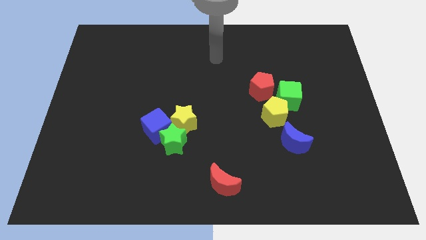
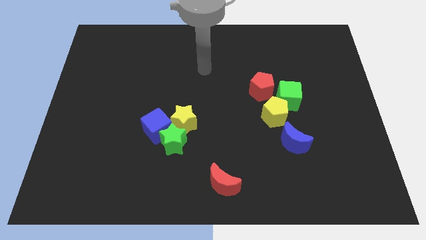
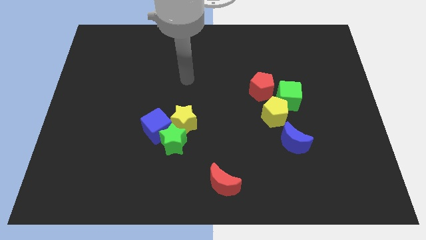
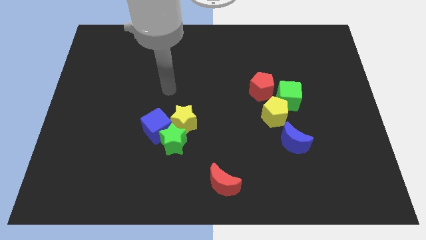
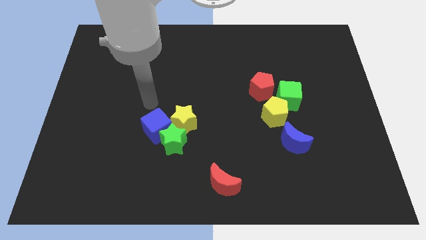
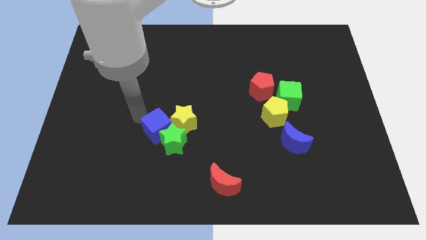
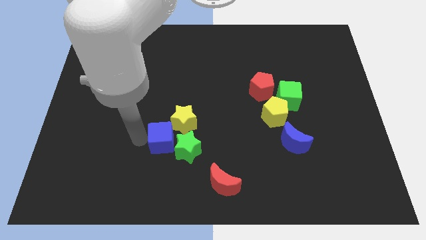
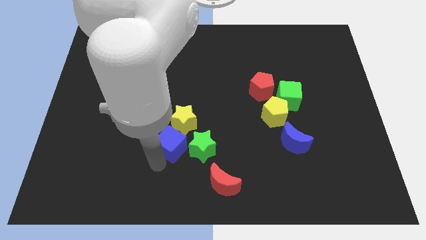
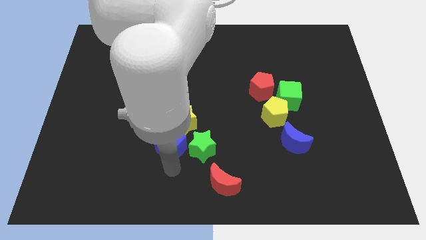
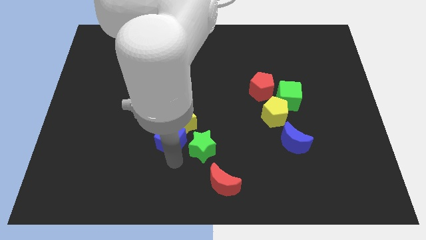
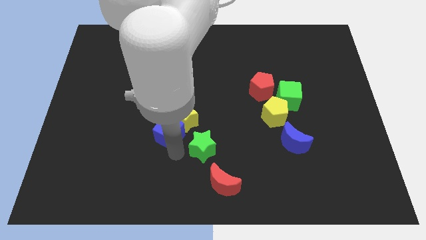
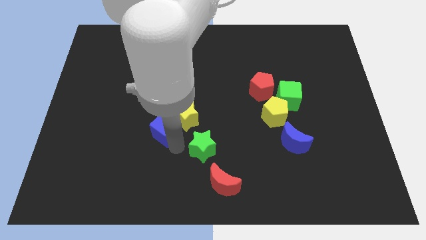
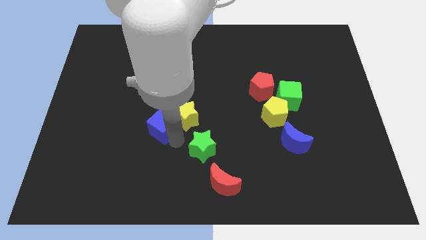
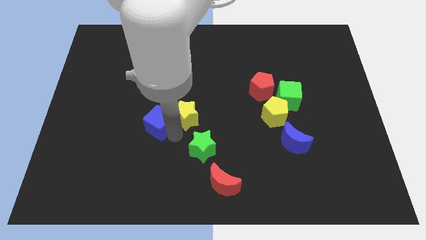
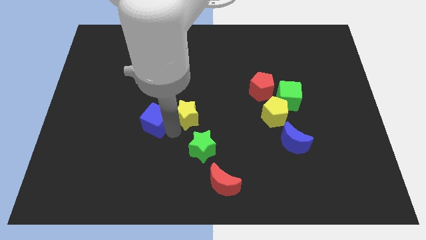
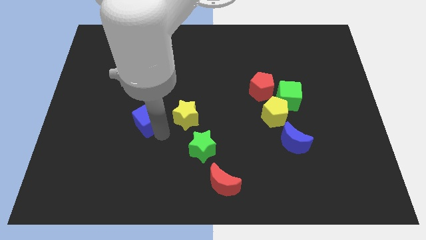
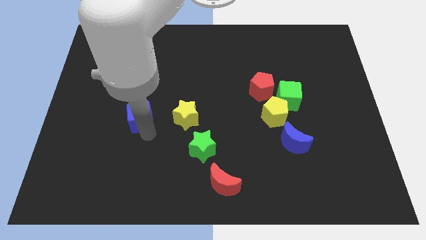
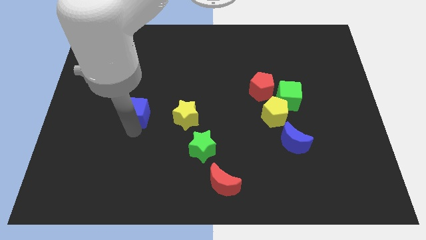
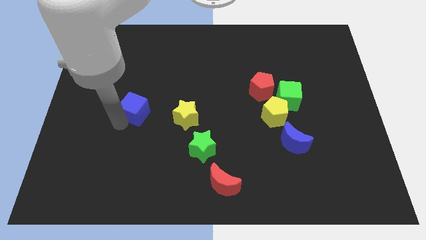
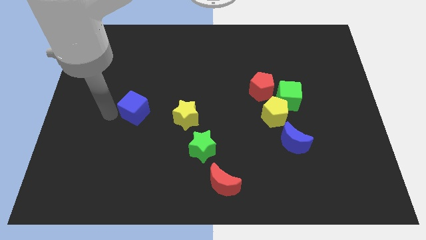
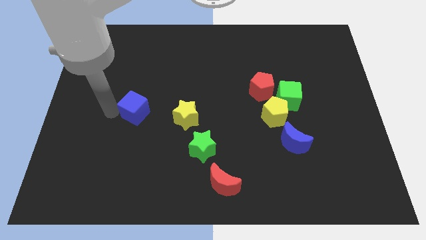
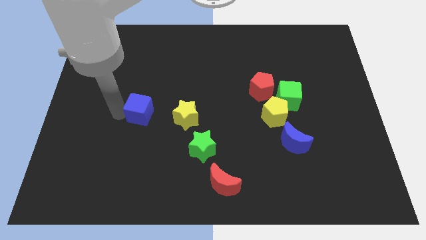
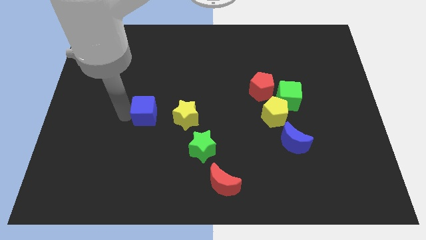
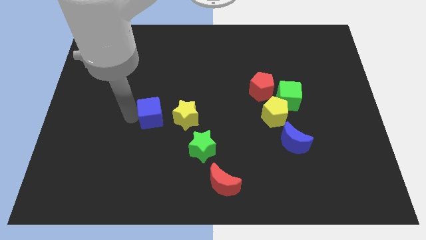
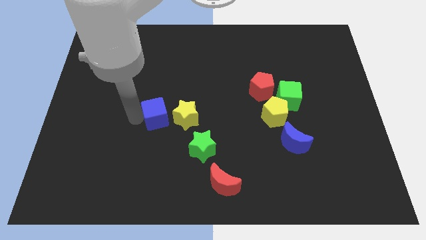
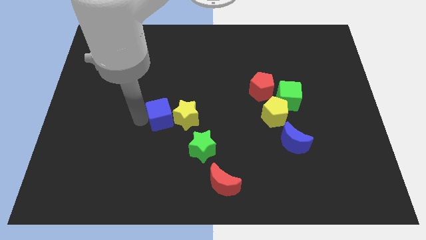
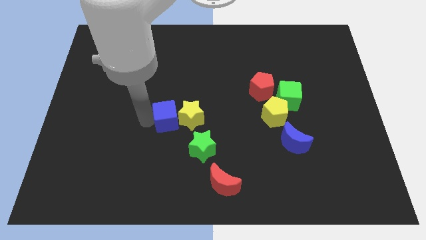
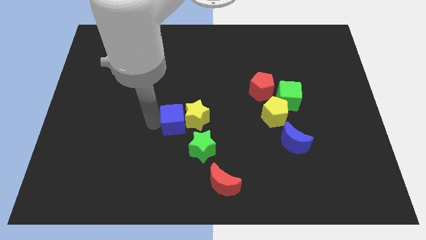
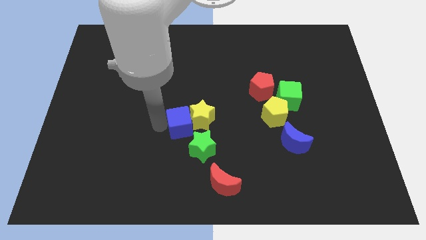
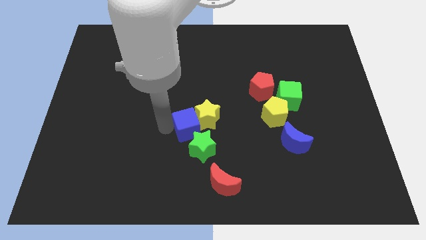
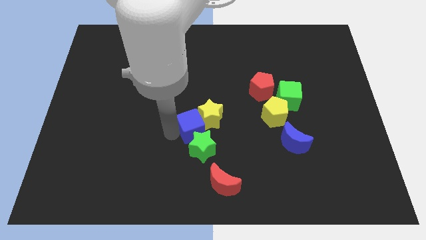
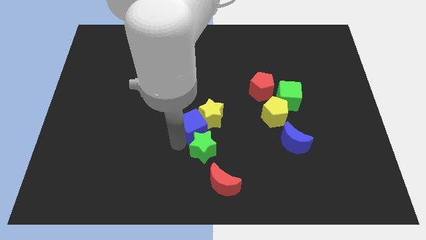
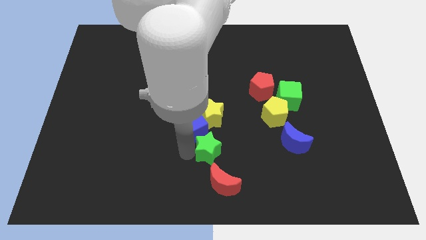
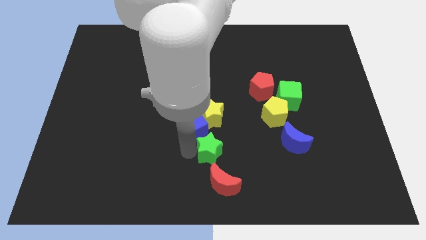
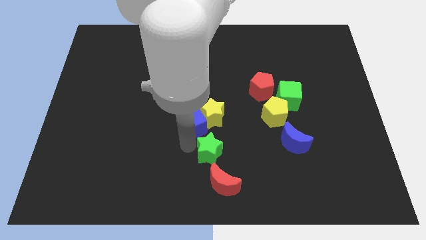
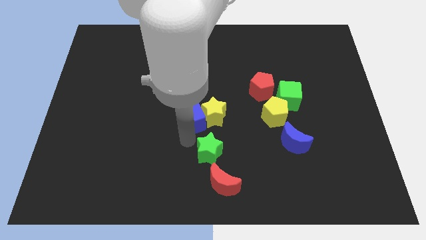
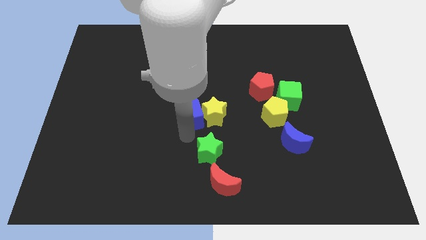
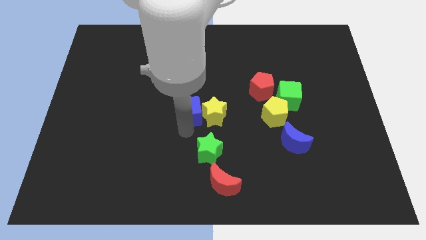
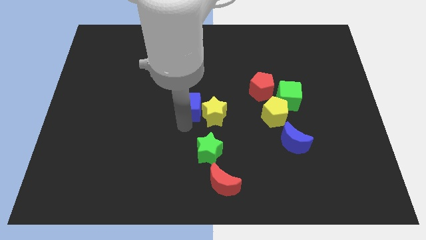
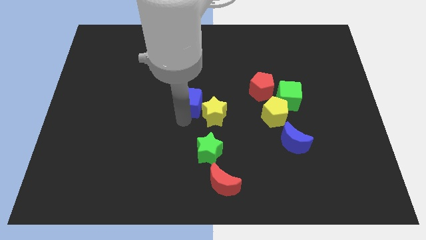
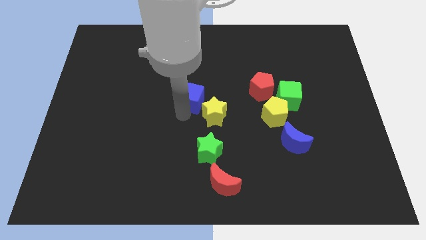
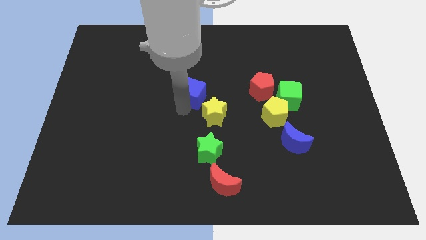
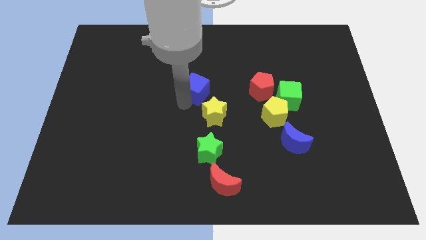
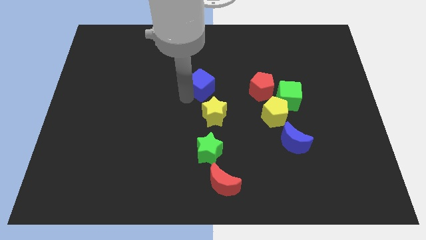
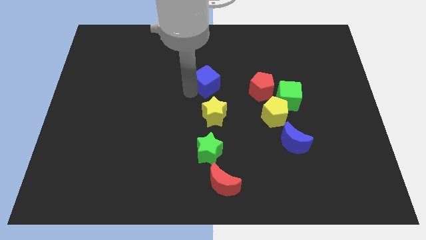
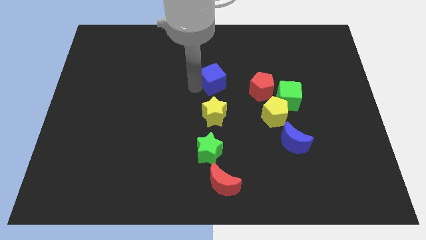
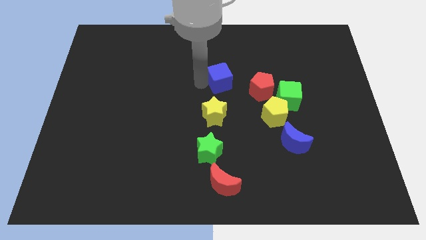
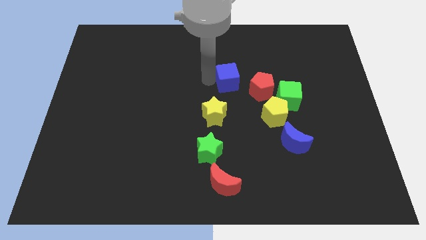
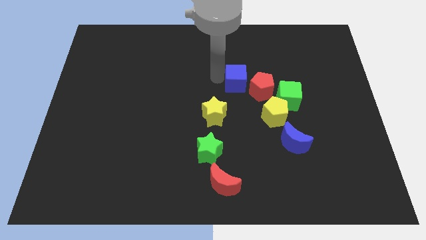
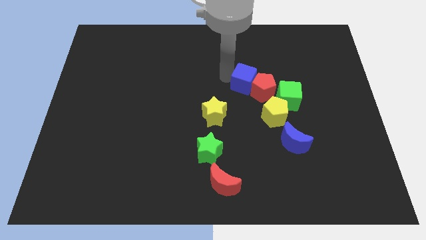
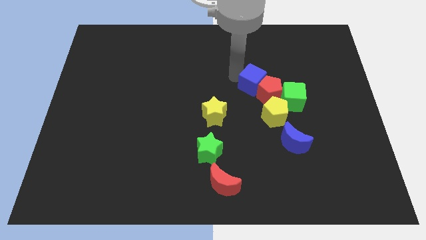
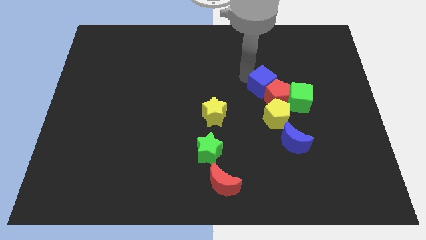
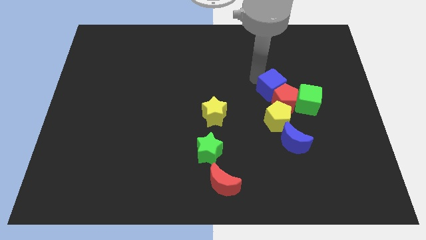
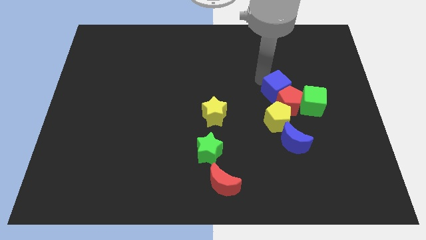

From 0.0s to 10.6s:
slide the blue cube to the right

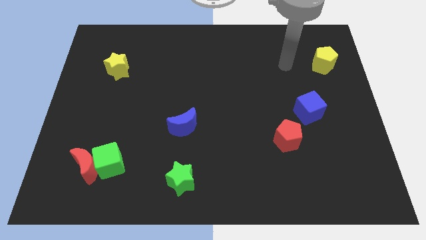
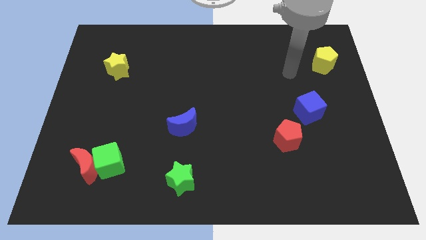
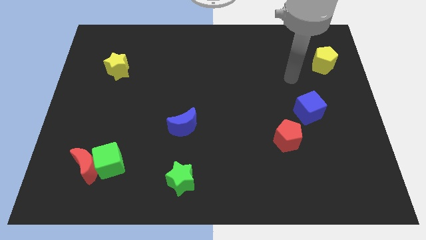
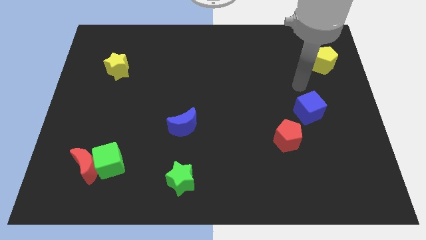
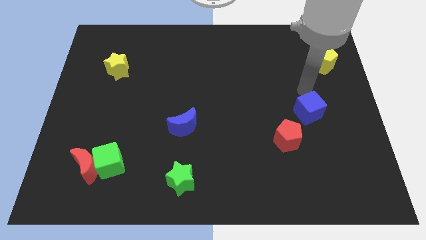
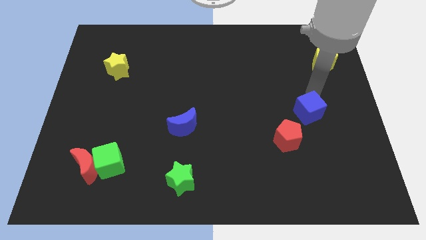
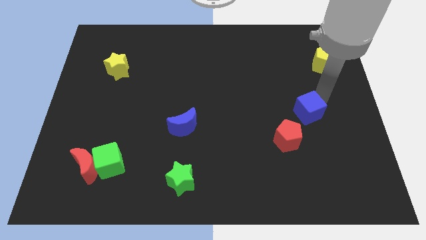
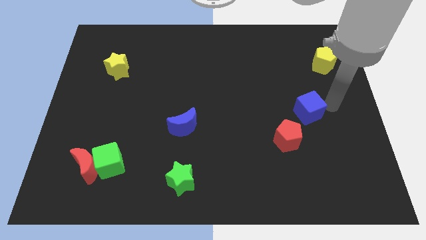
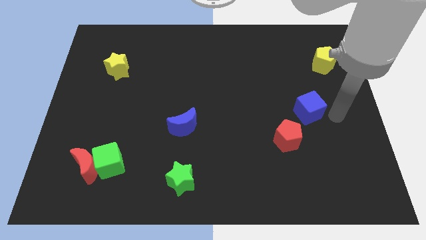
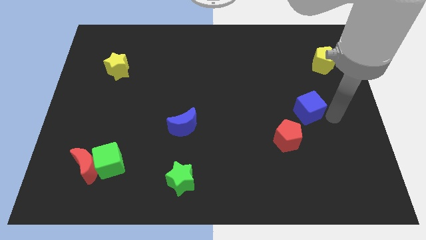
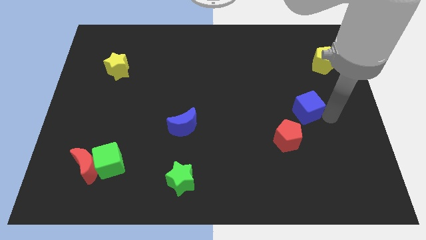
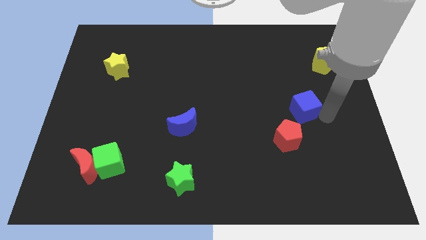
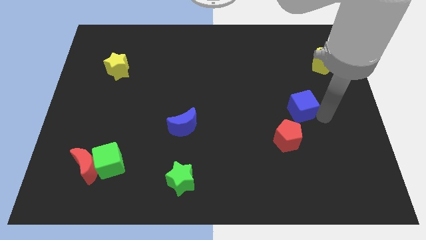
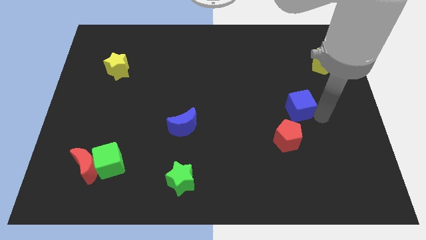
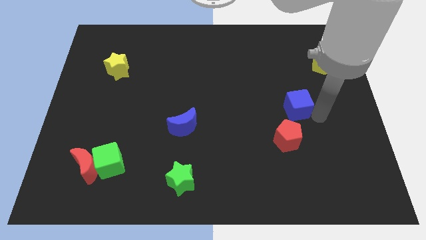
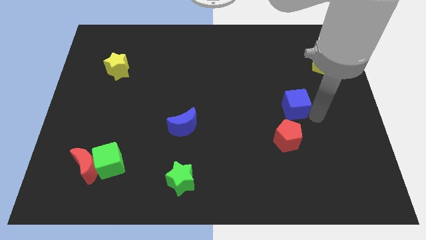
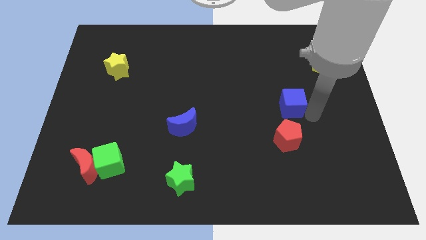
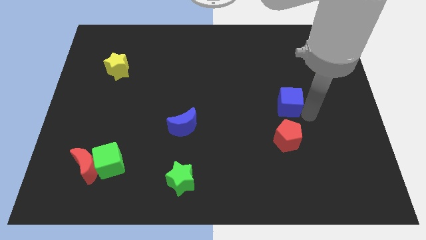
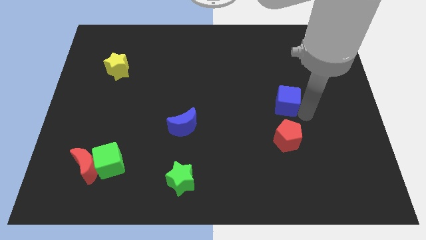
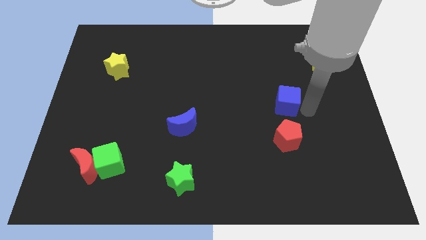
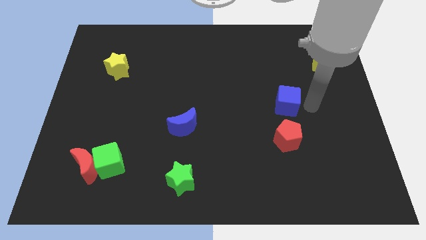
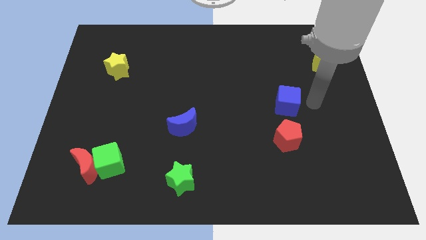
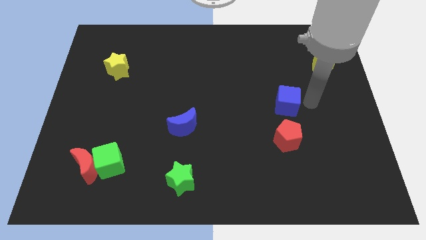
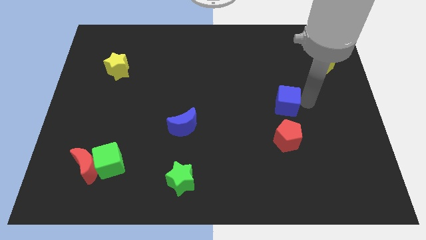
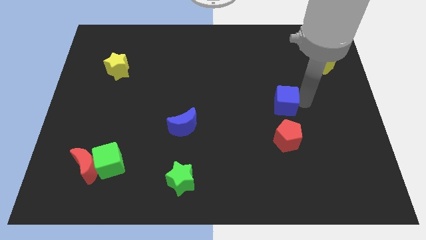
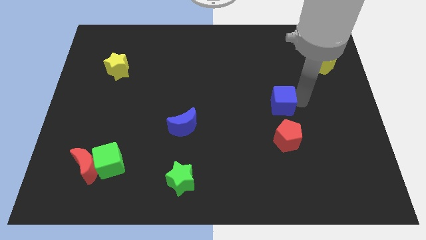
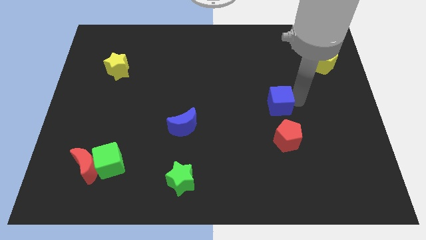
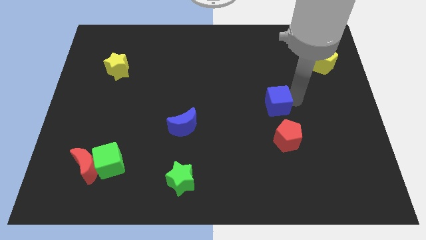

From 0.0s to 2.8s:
push the blue cube left somewhat
